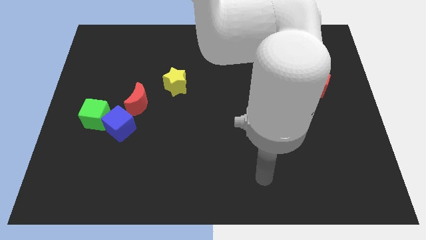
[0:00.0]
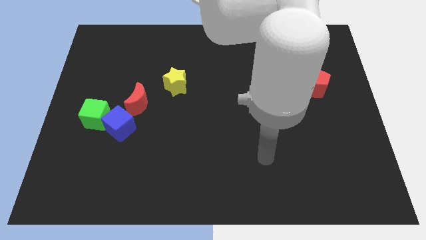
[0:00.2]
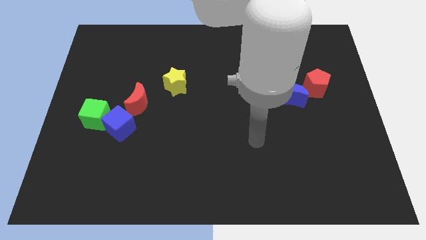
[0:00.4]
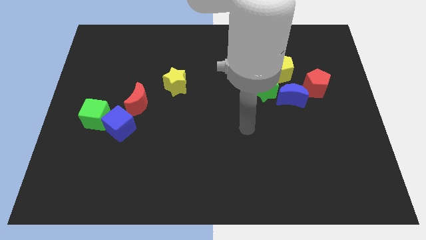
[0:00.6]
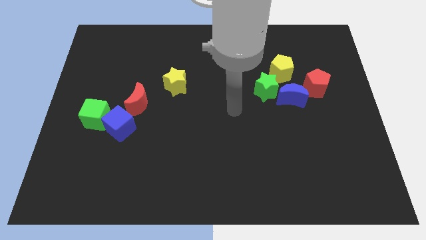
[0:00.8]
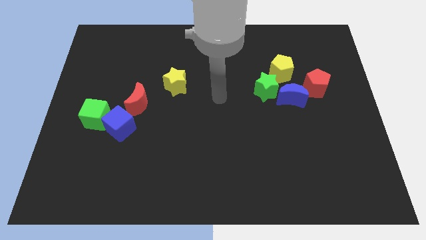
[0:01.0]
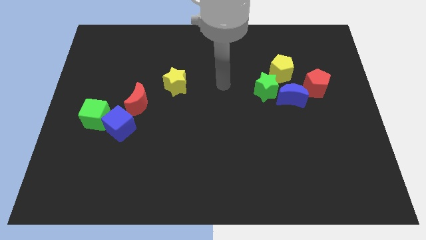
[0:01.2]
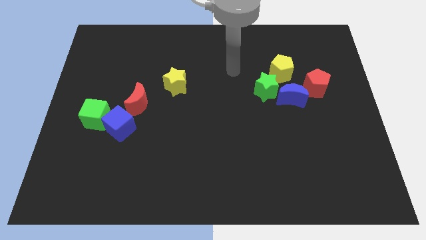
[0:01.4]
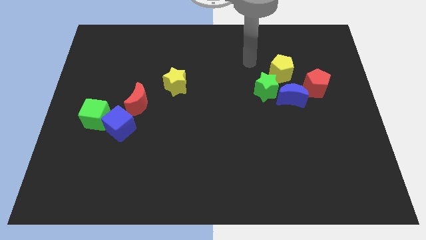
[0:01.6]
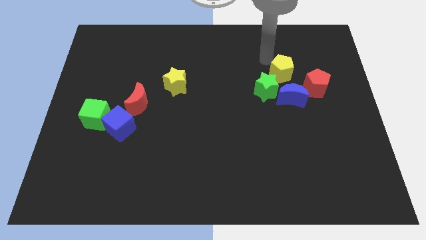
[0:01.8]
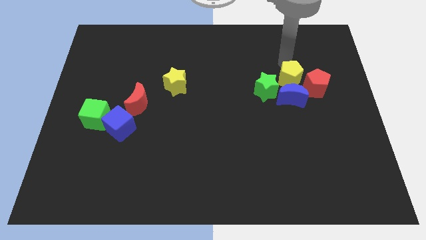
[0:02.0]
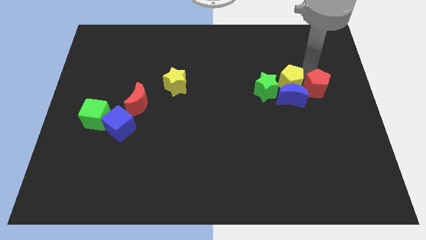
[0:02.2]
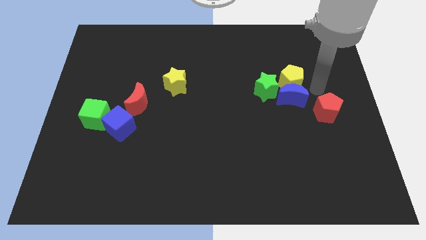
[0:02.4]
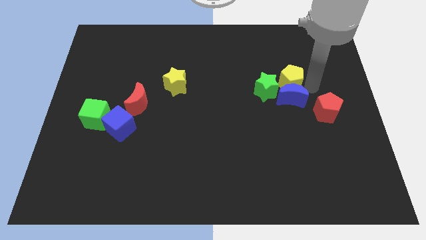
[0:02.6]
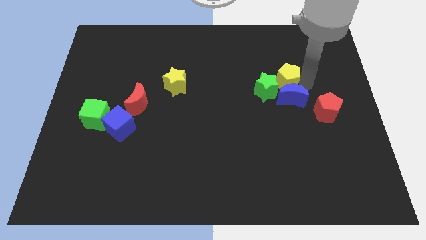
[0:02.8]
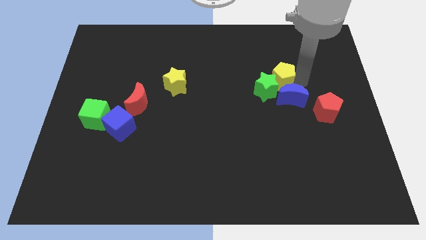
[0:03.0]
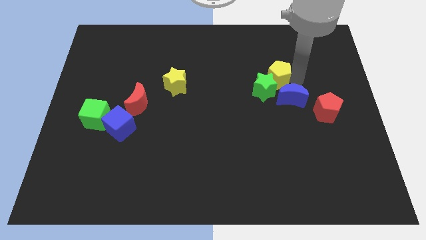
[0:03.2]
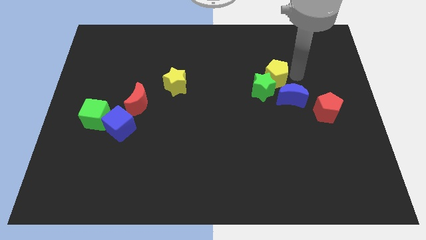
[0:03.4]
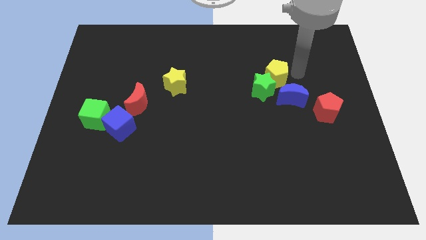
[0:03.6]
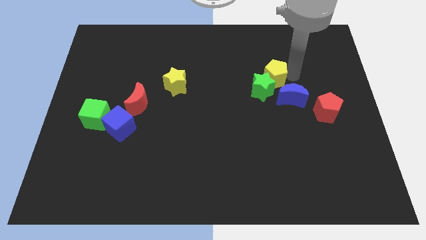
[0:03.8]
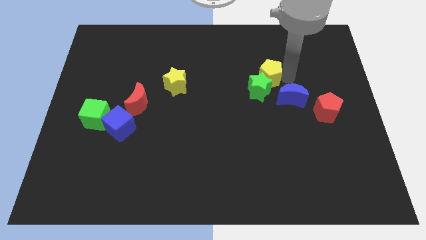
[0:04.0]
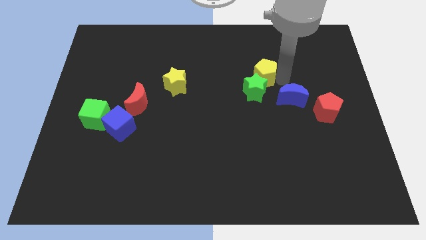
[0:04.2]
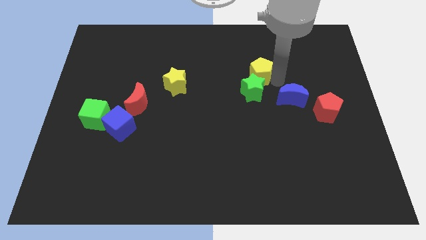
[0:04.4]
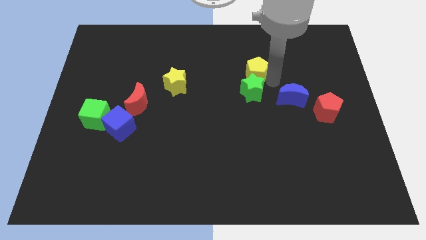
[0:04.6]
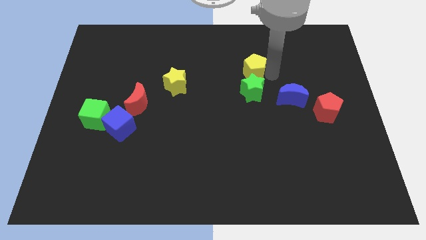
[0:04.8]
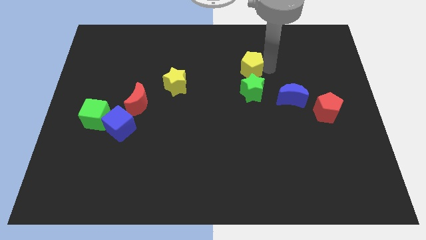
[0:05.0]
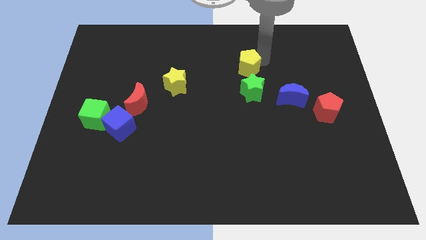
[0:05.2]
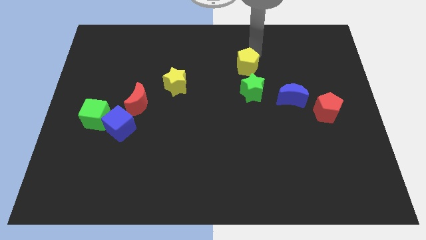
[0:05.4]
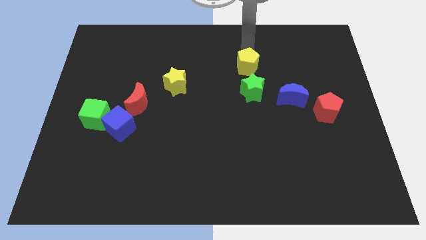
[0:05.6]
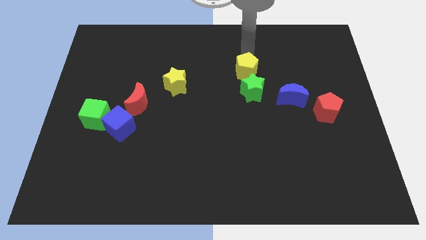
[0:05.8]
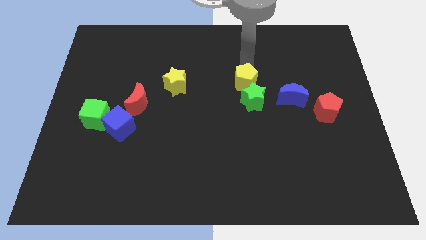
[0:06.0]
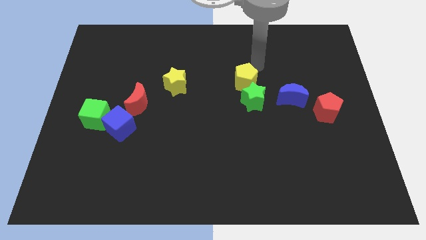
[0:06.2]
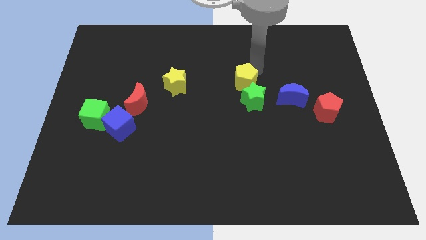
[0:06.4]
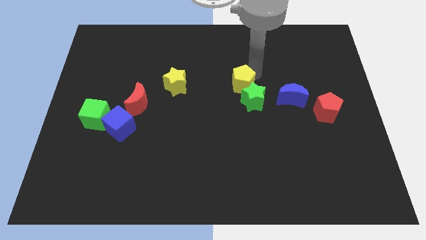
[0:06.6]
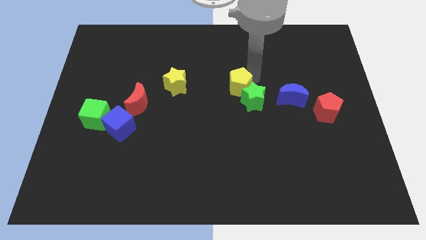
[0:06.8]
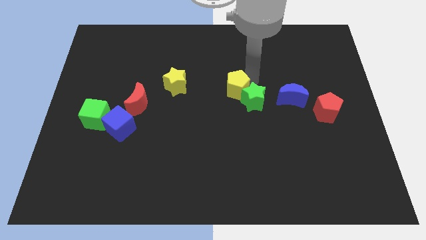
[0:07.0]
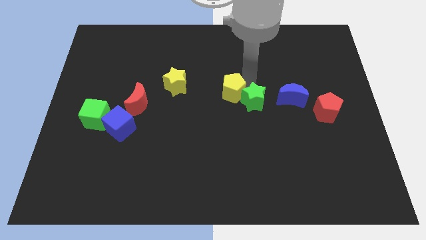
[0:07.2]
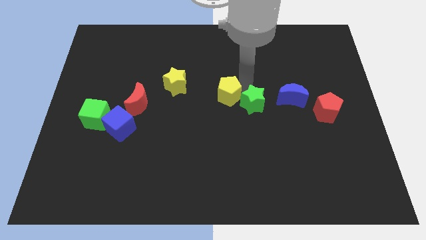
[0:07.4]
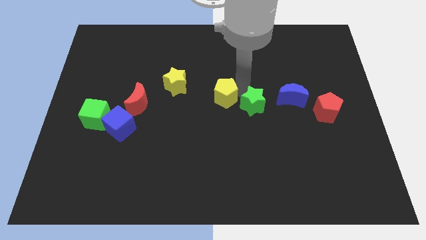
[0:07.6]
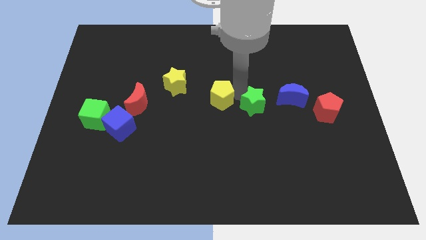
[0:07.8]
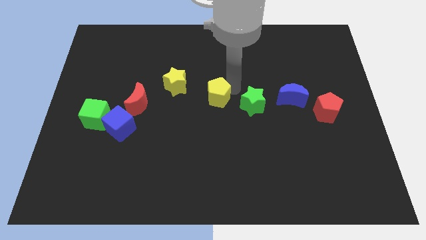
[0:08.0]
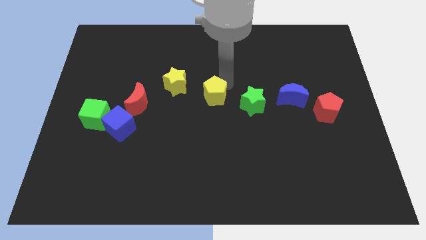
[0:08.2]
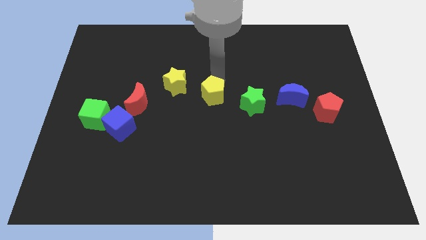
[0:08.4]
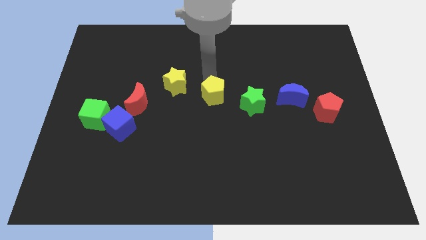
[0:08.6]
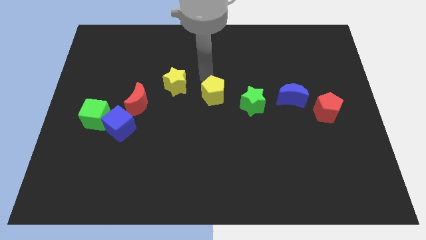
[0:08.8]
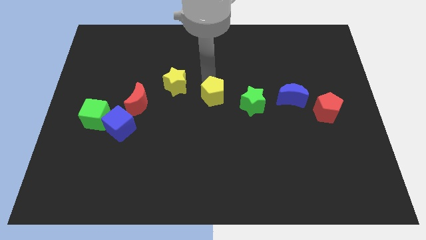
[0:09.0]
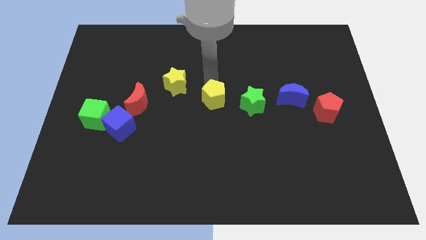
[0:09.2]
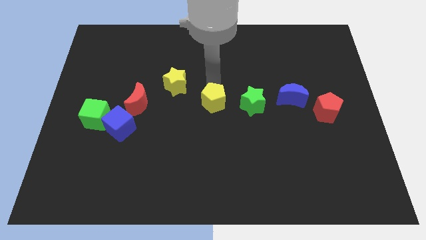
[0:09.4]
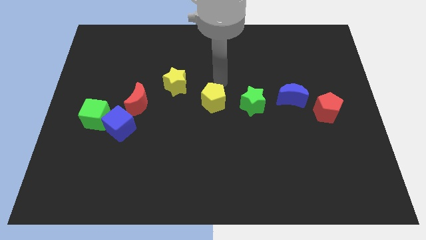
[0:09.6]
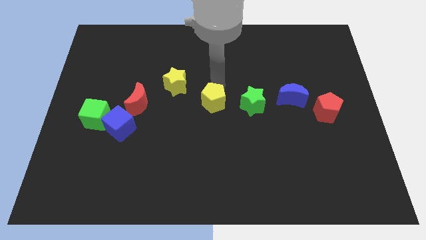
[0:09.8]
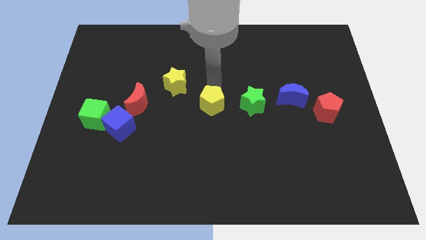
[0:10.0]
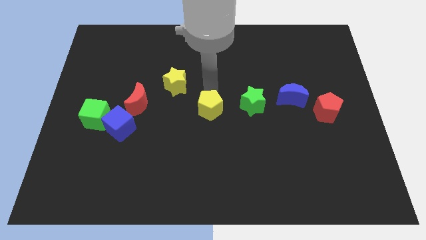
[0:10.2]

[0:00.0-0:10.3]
move the yellow pentagon downwards and to the left

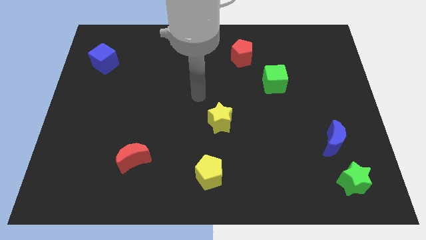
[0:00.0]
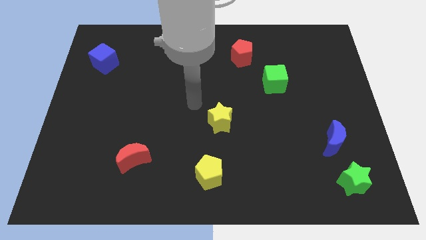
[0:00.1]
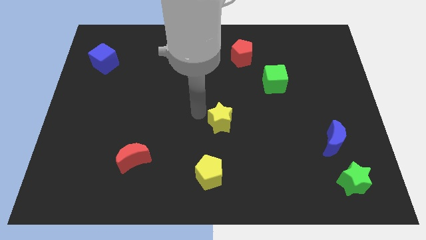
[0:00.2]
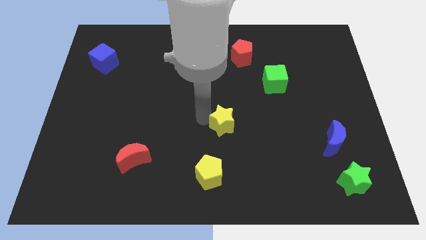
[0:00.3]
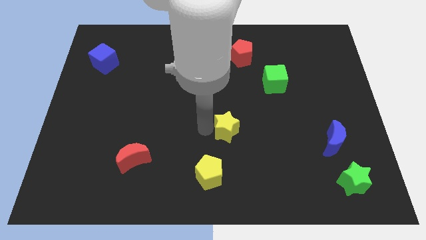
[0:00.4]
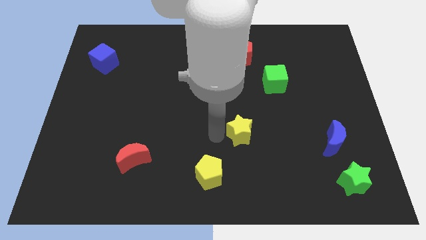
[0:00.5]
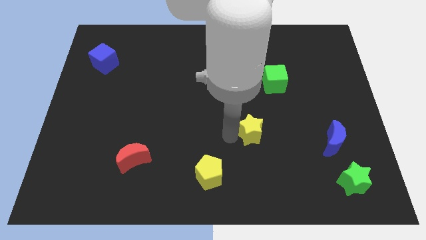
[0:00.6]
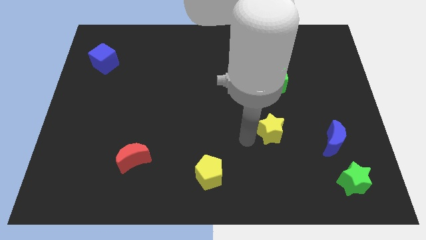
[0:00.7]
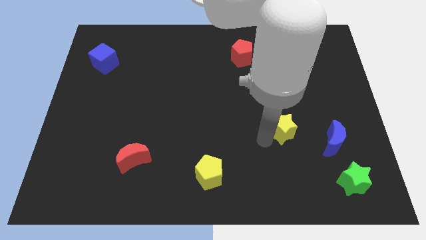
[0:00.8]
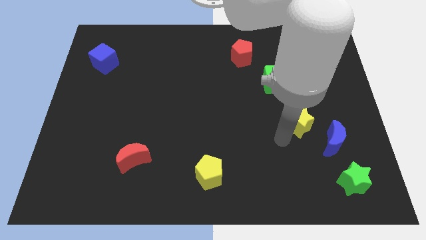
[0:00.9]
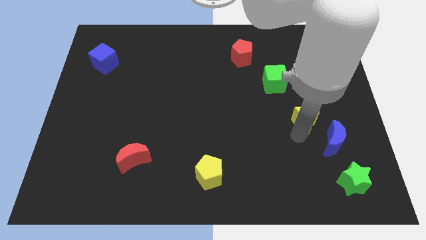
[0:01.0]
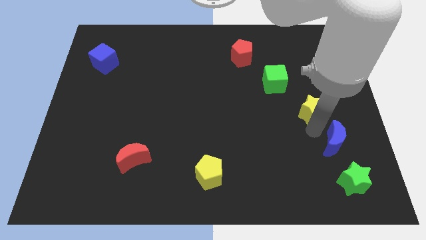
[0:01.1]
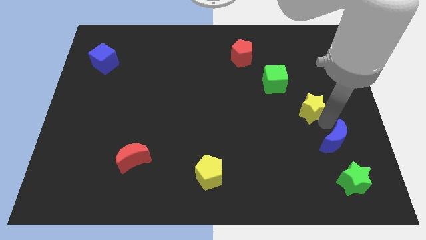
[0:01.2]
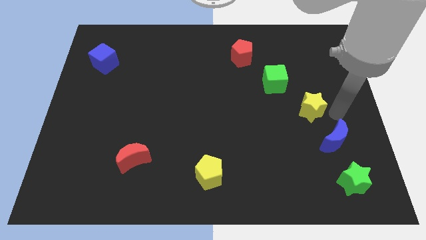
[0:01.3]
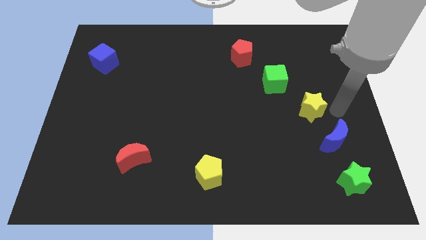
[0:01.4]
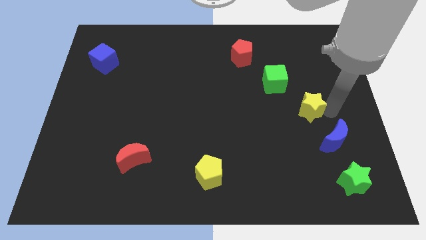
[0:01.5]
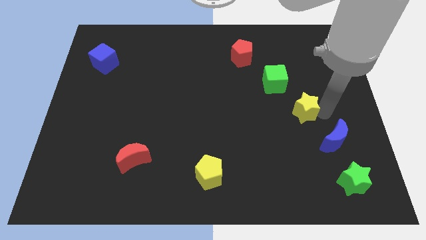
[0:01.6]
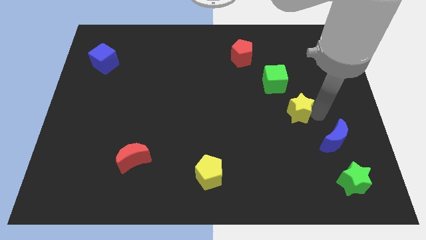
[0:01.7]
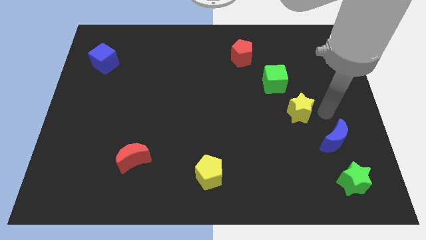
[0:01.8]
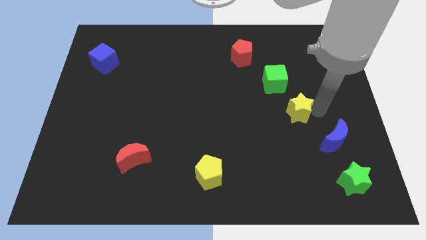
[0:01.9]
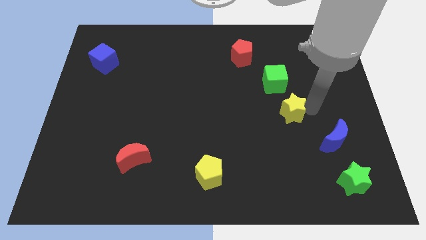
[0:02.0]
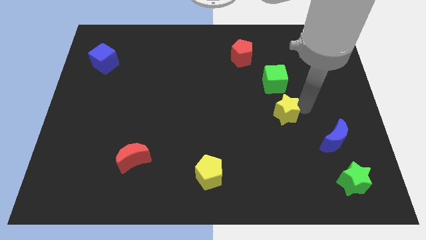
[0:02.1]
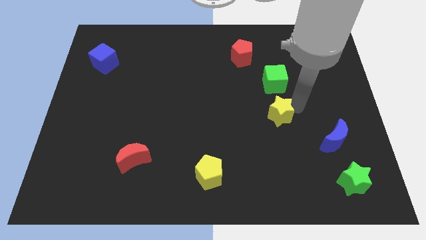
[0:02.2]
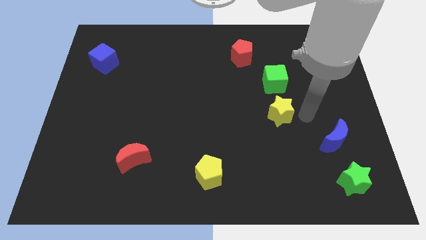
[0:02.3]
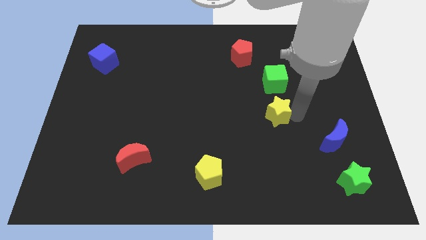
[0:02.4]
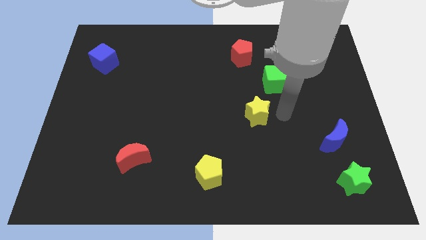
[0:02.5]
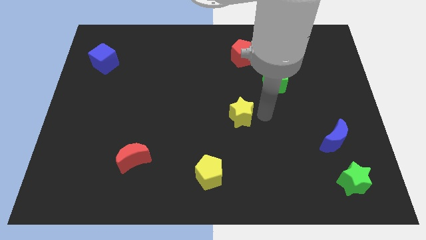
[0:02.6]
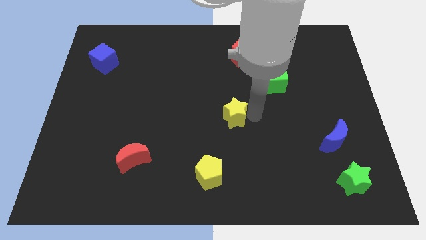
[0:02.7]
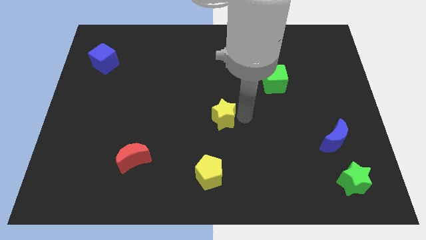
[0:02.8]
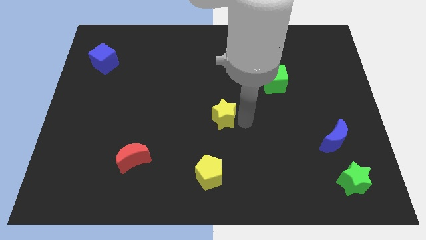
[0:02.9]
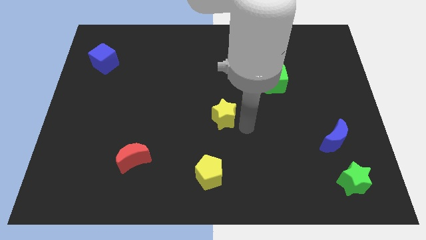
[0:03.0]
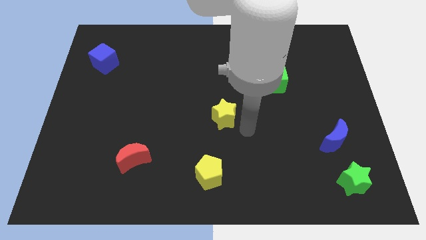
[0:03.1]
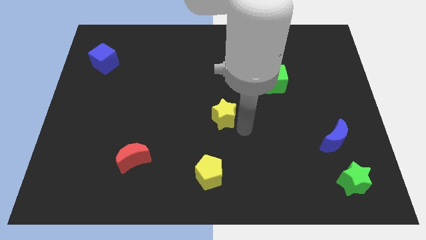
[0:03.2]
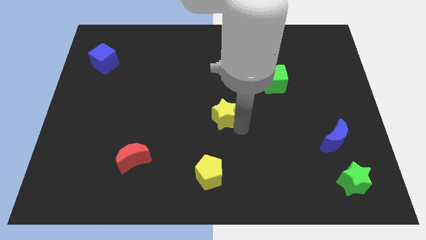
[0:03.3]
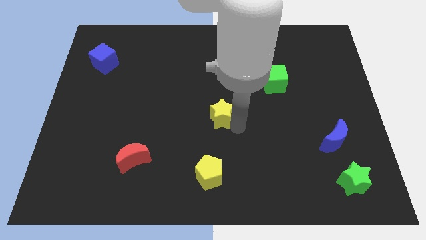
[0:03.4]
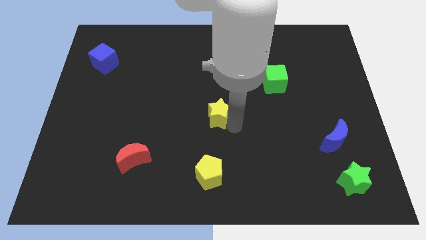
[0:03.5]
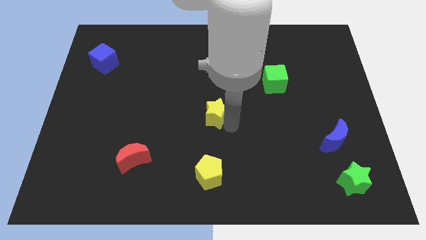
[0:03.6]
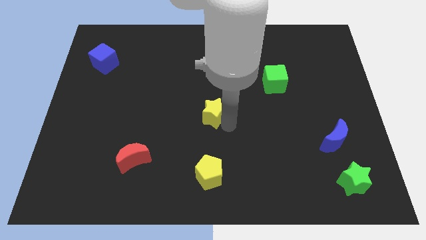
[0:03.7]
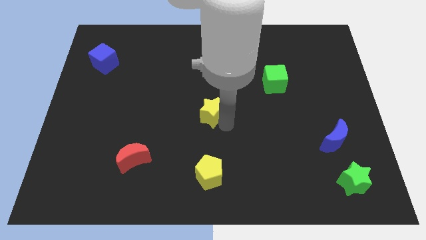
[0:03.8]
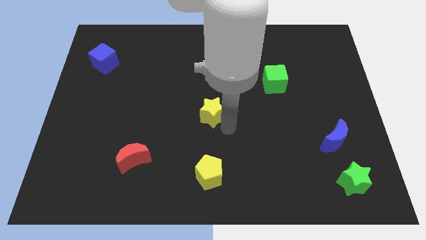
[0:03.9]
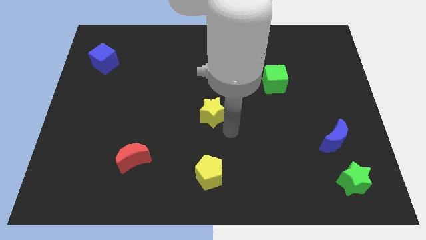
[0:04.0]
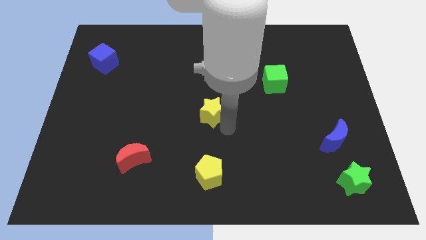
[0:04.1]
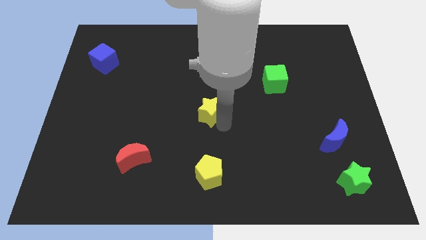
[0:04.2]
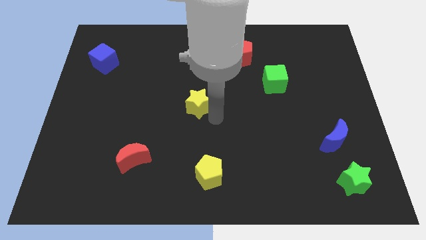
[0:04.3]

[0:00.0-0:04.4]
move the yellow star upwards and to the left a little
